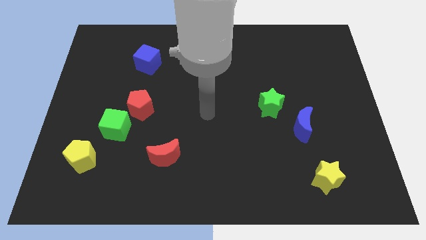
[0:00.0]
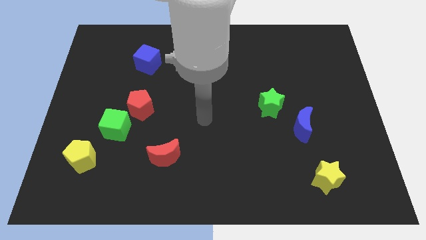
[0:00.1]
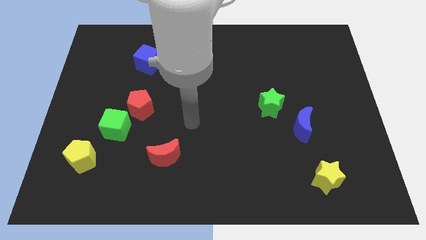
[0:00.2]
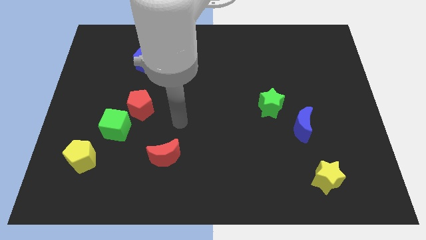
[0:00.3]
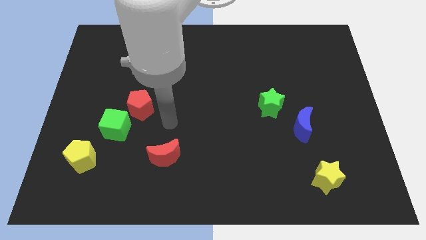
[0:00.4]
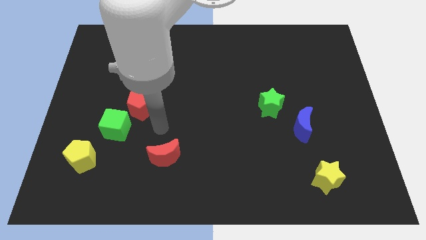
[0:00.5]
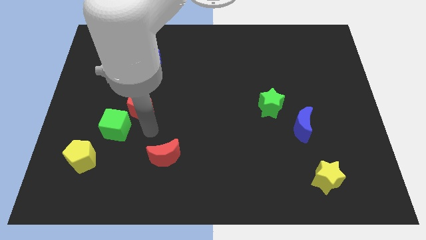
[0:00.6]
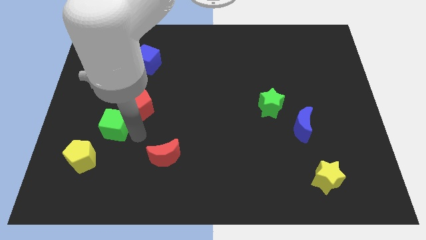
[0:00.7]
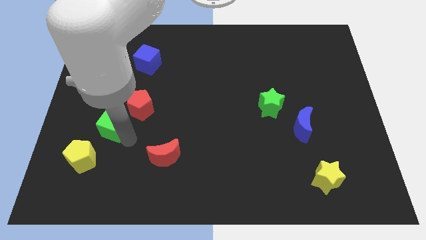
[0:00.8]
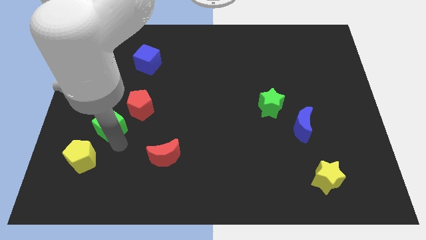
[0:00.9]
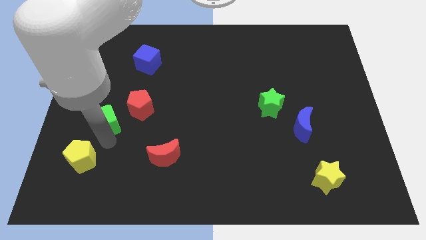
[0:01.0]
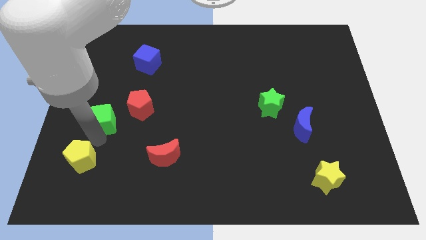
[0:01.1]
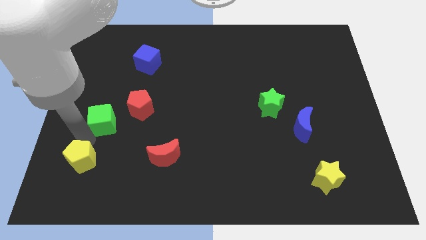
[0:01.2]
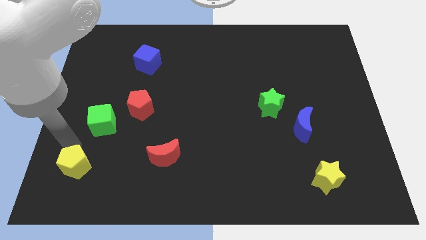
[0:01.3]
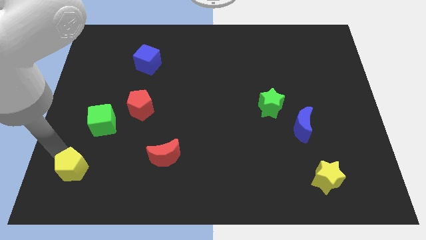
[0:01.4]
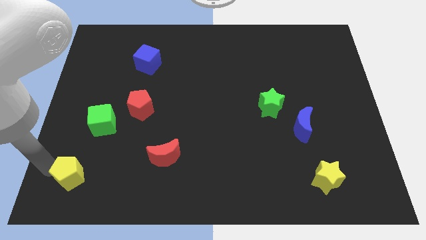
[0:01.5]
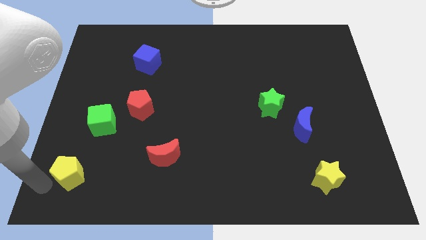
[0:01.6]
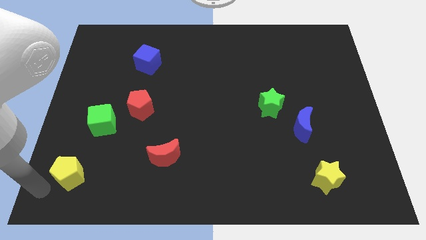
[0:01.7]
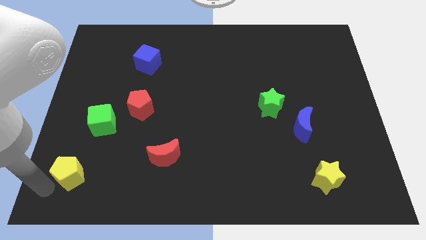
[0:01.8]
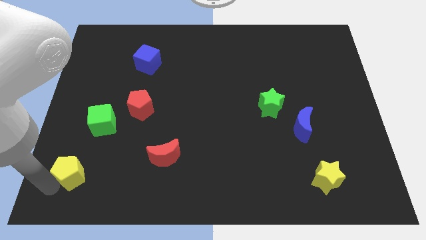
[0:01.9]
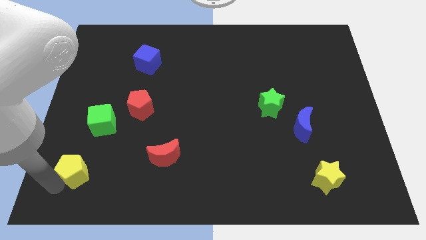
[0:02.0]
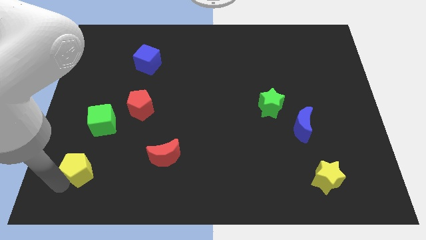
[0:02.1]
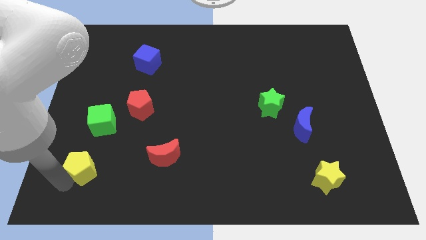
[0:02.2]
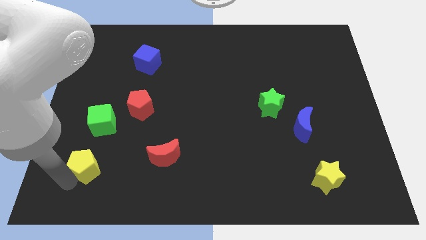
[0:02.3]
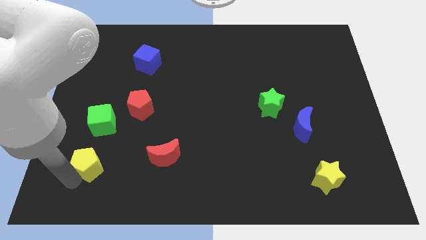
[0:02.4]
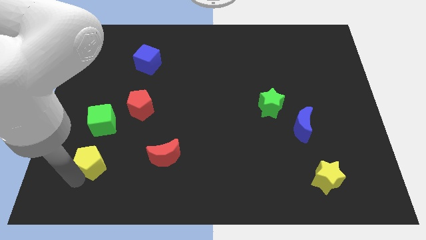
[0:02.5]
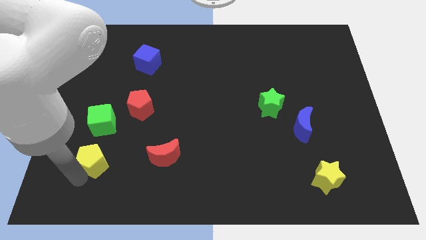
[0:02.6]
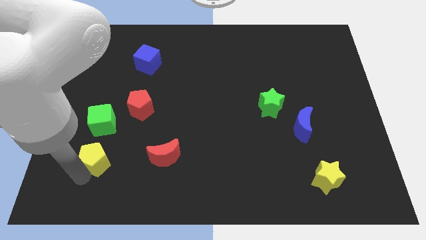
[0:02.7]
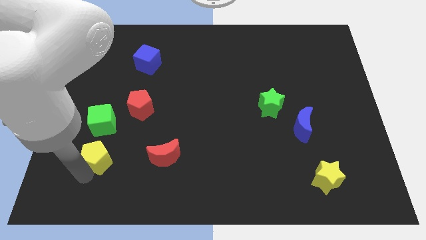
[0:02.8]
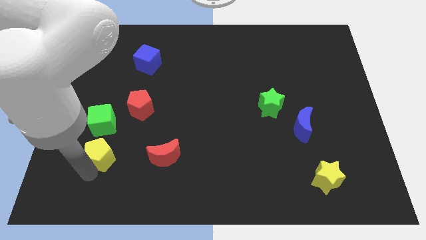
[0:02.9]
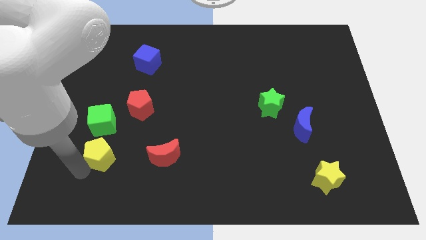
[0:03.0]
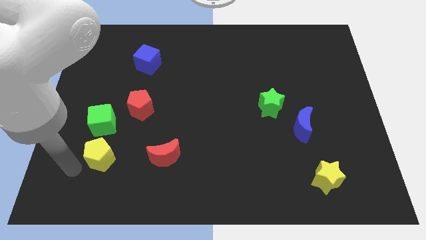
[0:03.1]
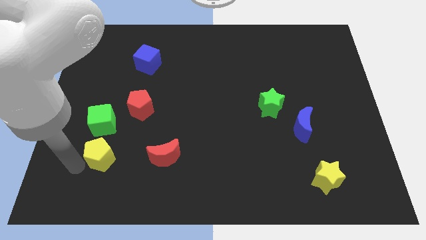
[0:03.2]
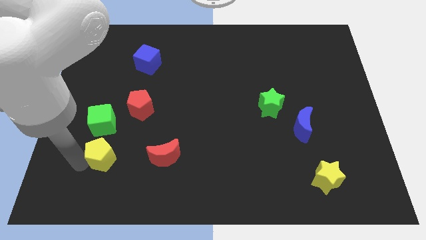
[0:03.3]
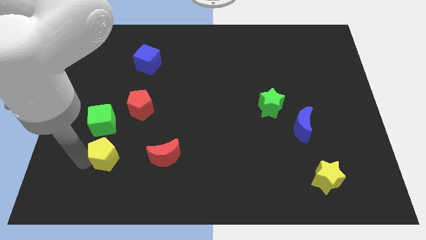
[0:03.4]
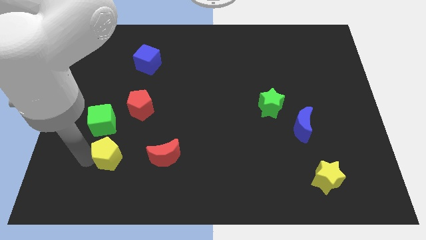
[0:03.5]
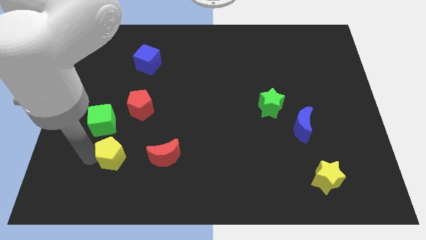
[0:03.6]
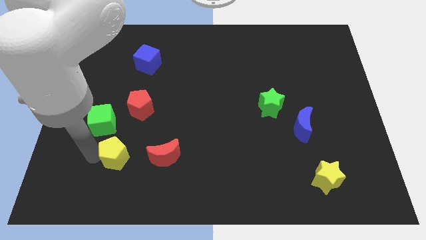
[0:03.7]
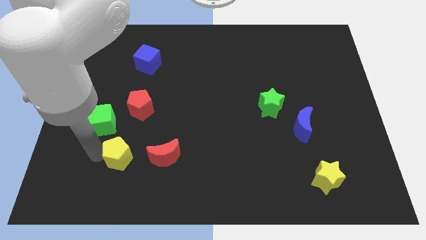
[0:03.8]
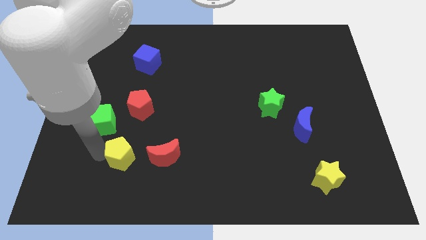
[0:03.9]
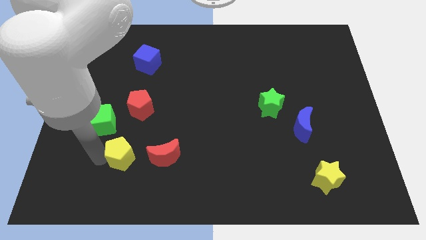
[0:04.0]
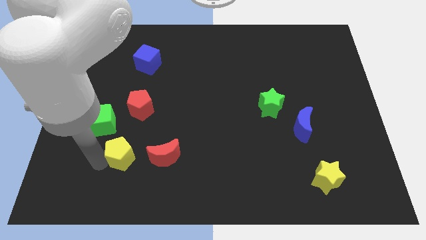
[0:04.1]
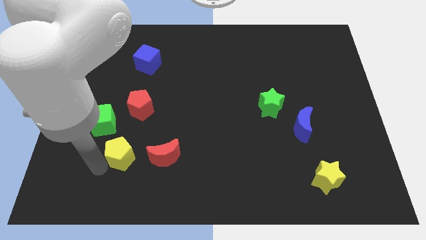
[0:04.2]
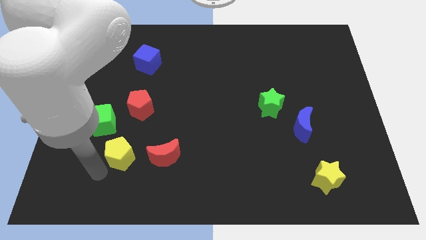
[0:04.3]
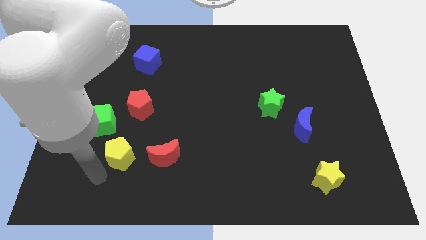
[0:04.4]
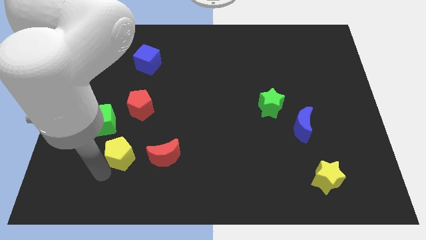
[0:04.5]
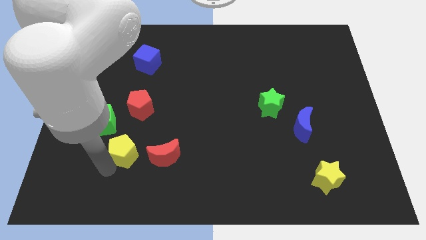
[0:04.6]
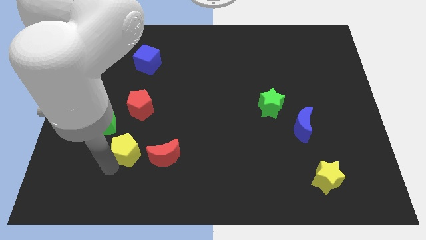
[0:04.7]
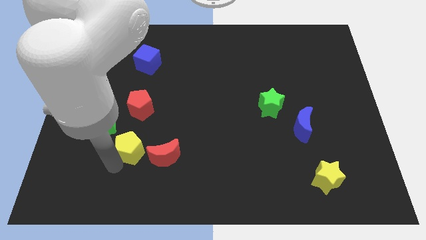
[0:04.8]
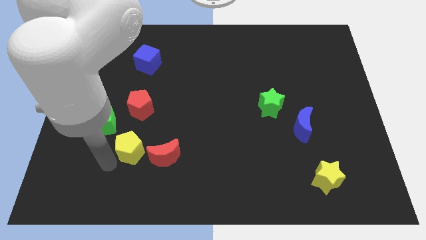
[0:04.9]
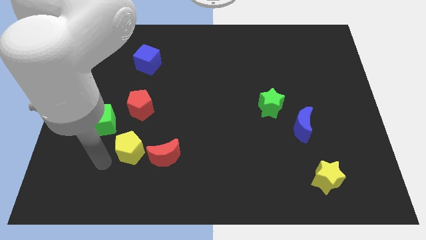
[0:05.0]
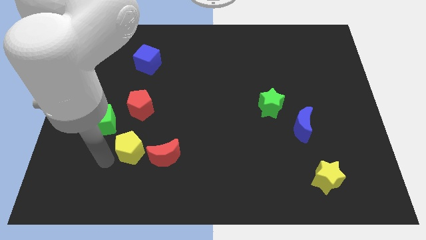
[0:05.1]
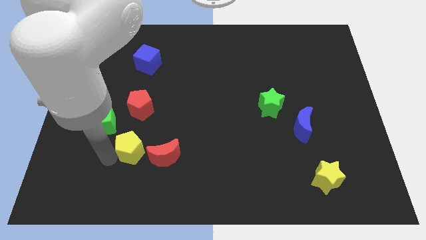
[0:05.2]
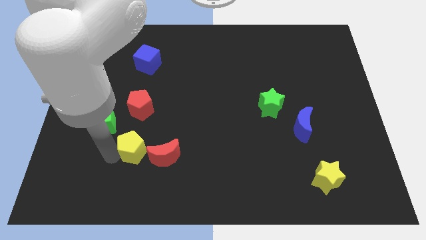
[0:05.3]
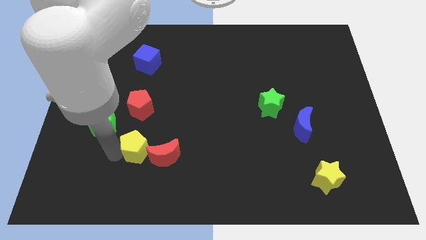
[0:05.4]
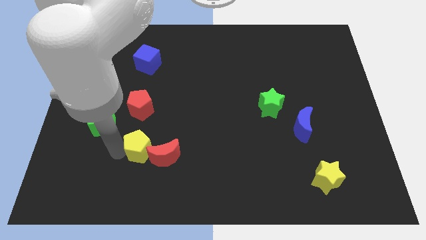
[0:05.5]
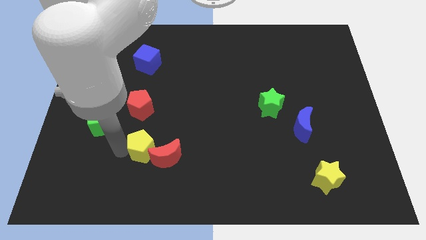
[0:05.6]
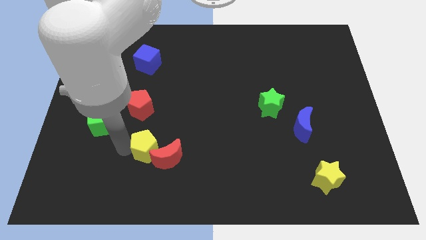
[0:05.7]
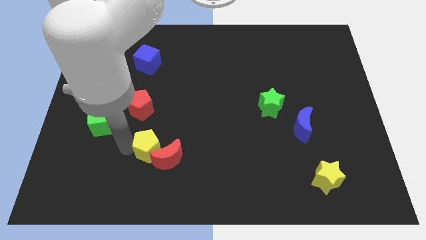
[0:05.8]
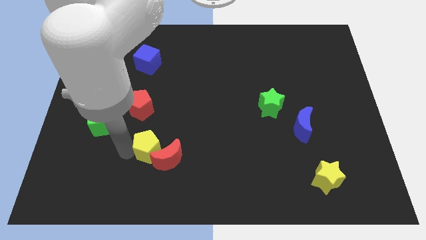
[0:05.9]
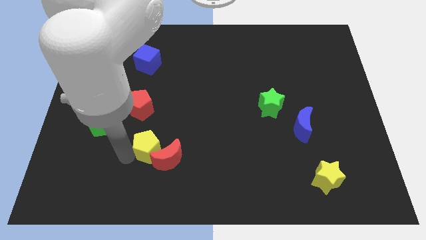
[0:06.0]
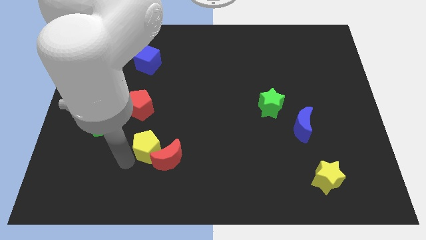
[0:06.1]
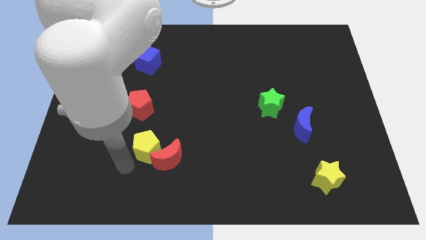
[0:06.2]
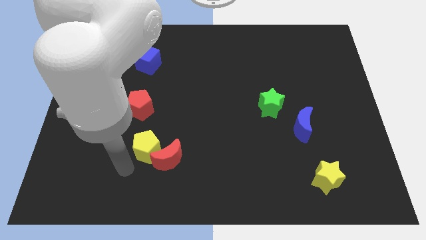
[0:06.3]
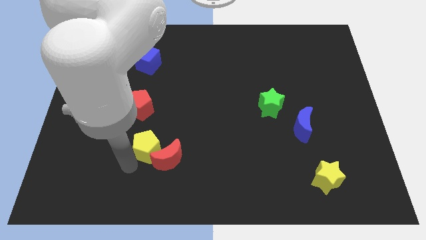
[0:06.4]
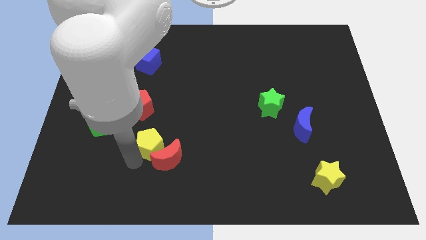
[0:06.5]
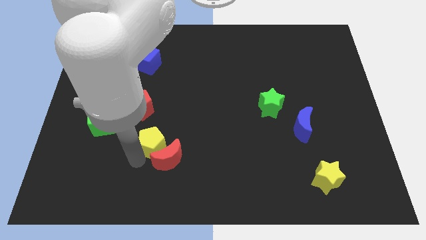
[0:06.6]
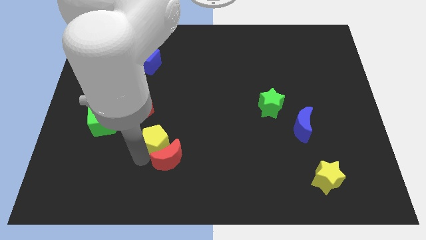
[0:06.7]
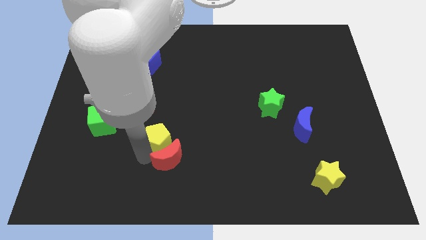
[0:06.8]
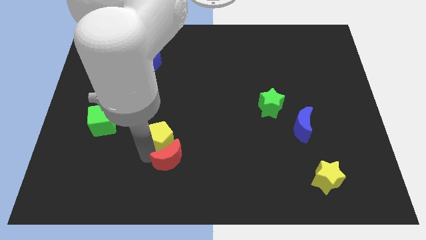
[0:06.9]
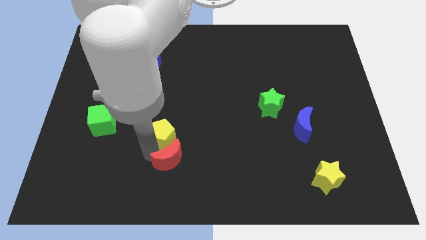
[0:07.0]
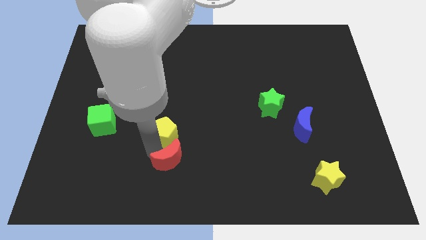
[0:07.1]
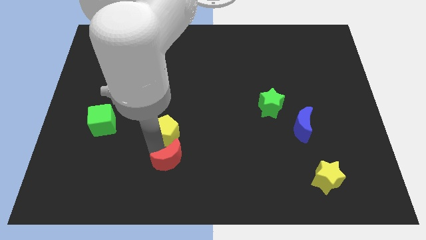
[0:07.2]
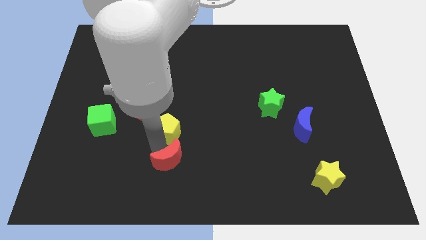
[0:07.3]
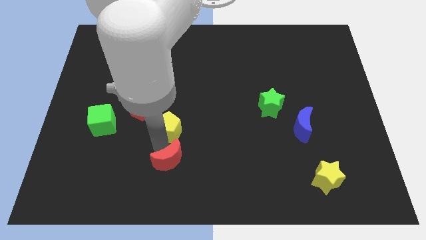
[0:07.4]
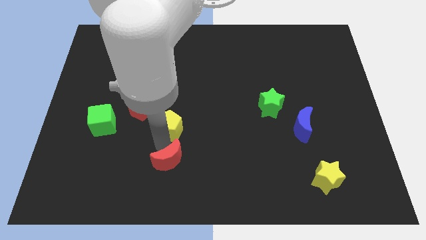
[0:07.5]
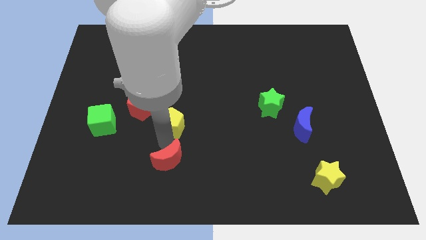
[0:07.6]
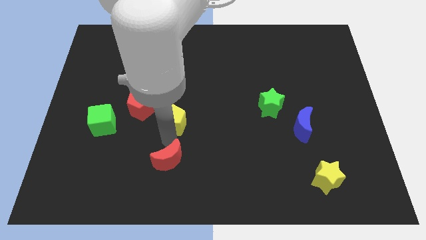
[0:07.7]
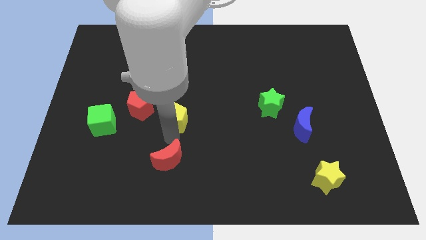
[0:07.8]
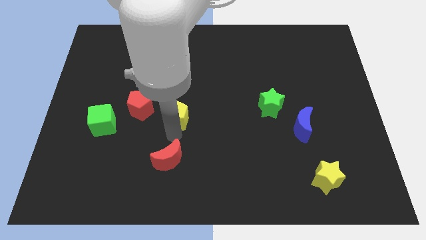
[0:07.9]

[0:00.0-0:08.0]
slide the yellow pentagon diagonally upwards and right
